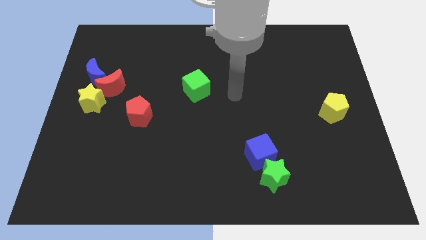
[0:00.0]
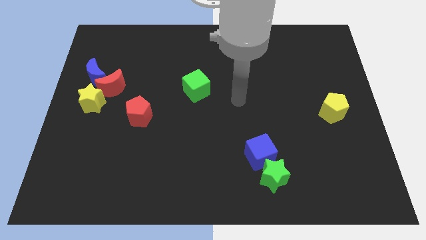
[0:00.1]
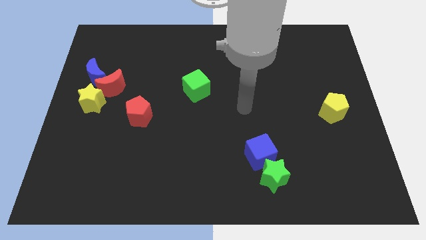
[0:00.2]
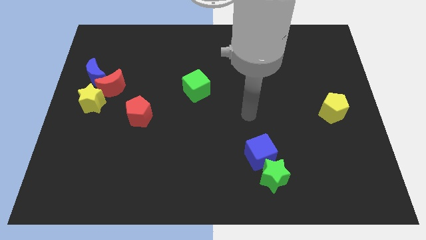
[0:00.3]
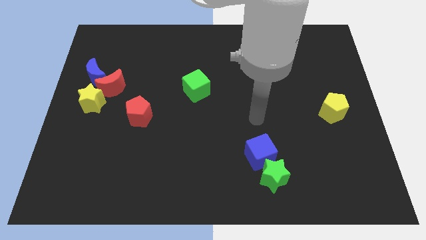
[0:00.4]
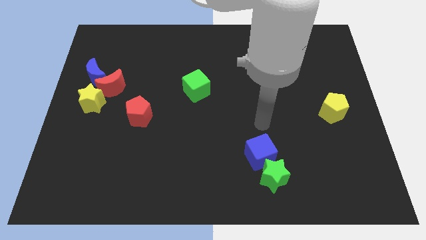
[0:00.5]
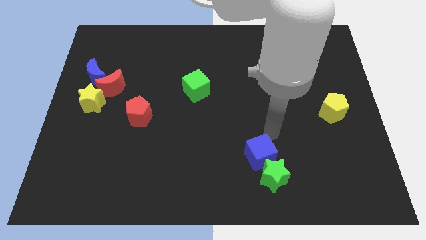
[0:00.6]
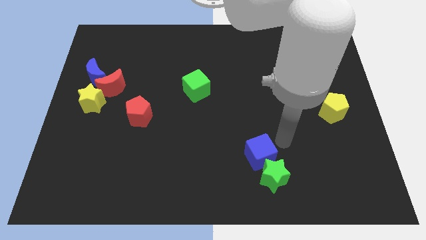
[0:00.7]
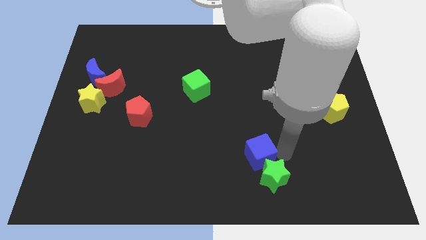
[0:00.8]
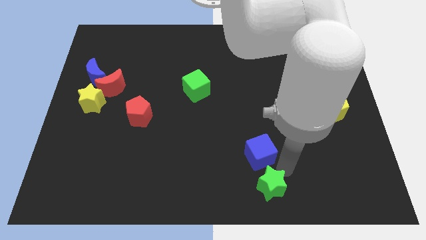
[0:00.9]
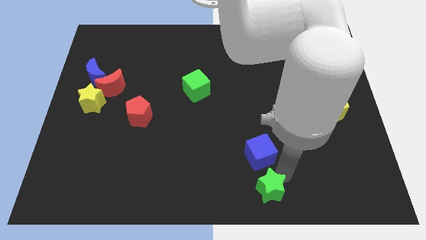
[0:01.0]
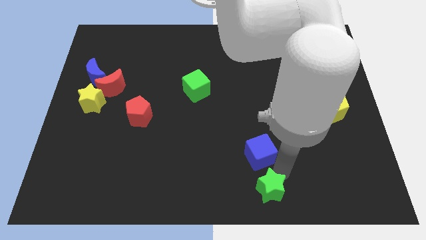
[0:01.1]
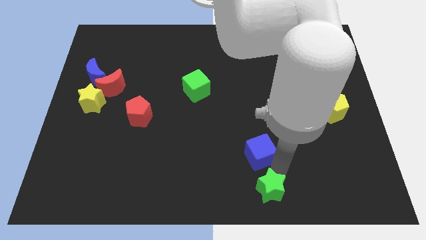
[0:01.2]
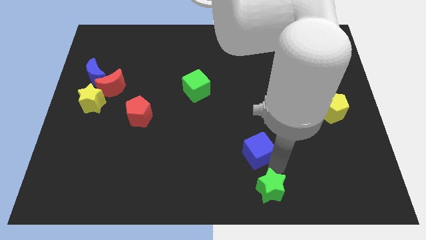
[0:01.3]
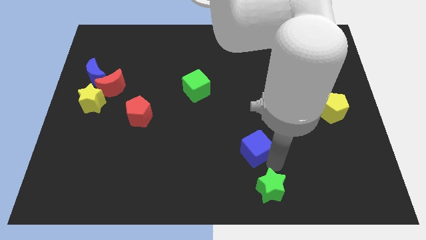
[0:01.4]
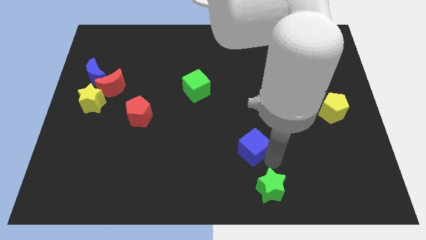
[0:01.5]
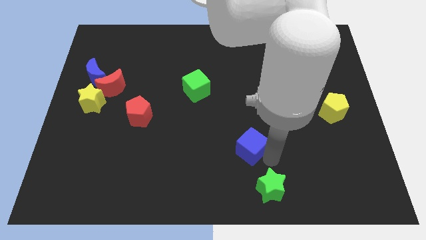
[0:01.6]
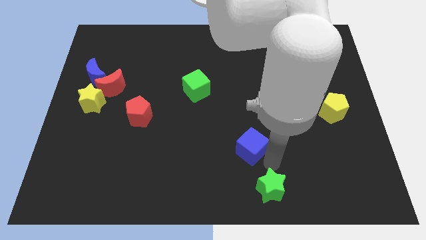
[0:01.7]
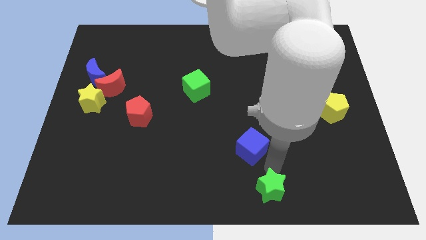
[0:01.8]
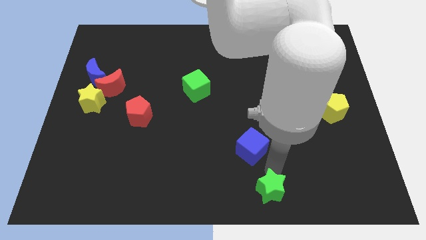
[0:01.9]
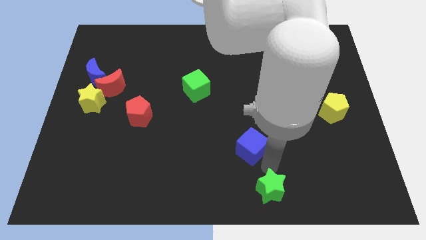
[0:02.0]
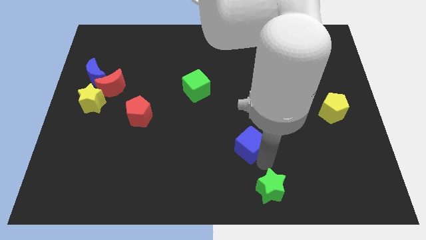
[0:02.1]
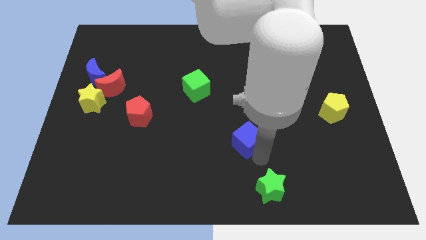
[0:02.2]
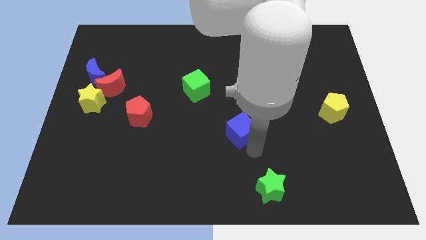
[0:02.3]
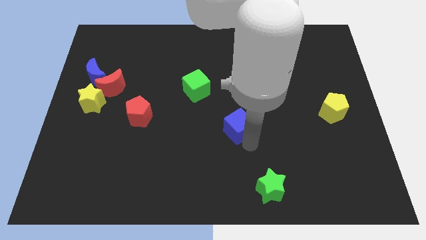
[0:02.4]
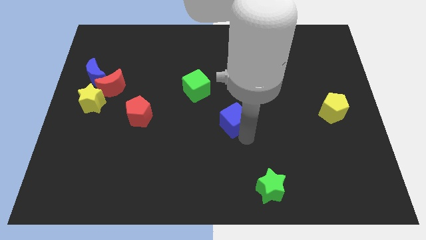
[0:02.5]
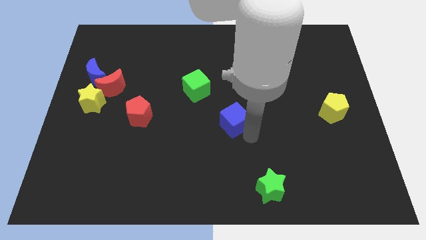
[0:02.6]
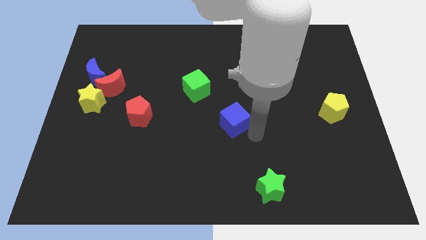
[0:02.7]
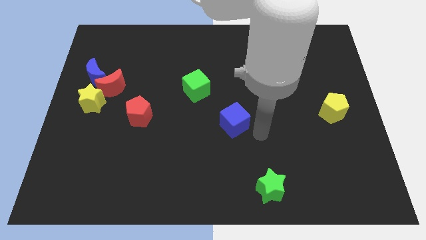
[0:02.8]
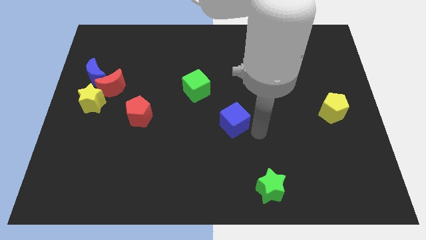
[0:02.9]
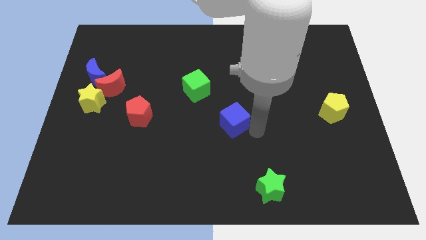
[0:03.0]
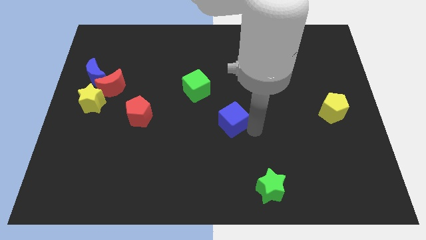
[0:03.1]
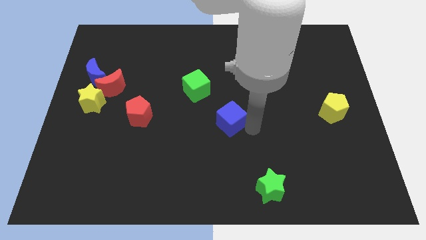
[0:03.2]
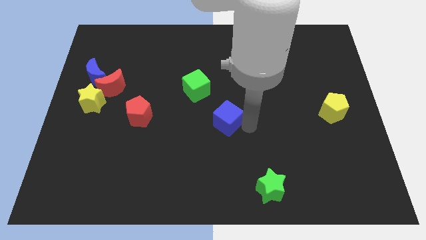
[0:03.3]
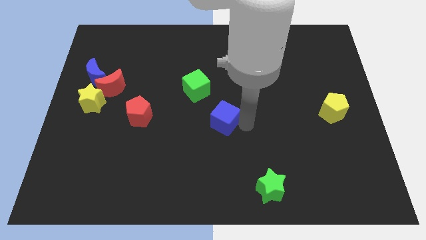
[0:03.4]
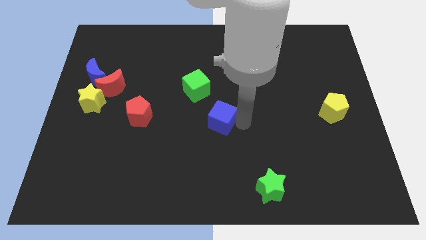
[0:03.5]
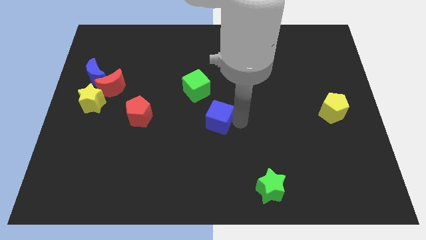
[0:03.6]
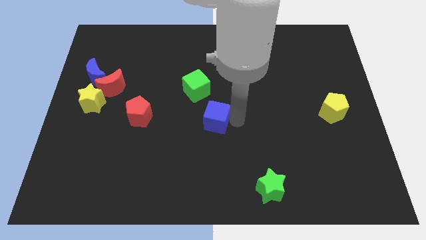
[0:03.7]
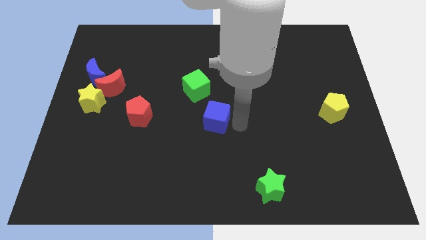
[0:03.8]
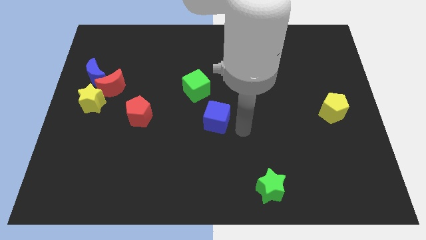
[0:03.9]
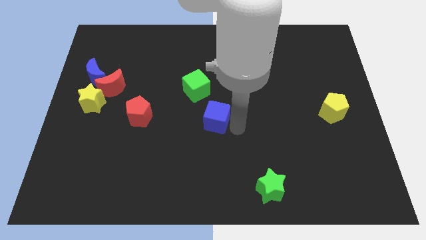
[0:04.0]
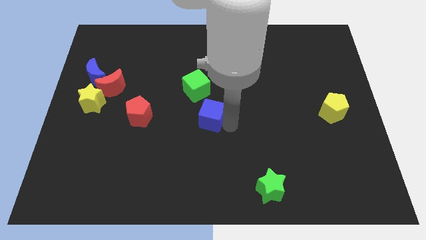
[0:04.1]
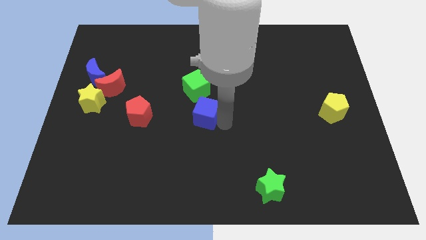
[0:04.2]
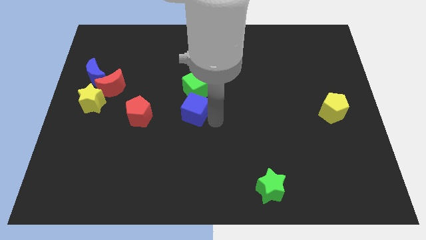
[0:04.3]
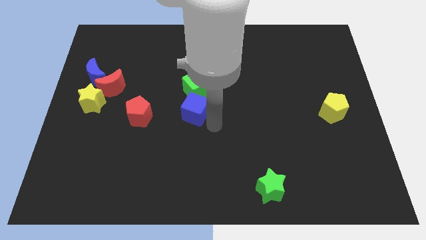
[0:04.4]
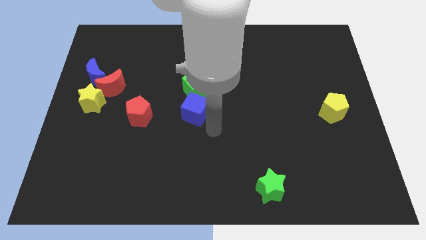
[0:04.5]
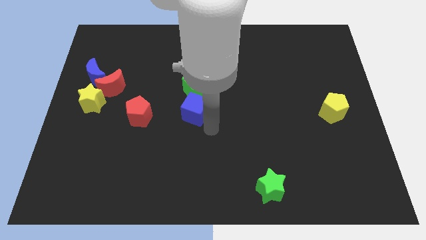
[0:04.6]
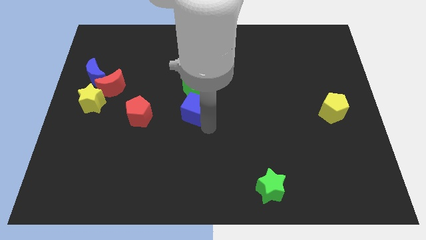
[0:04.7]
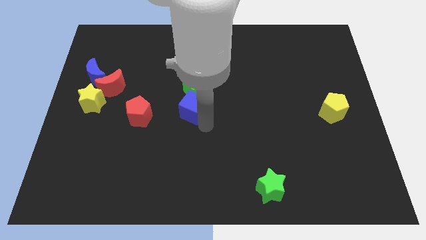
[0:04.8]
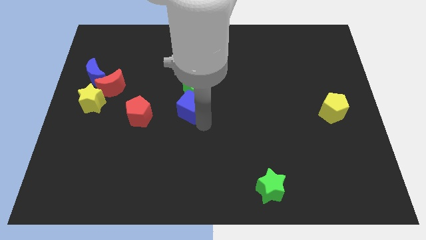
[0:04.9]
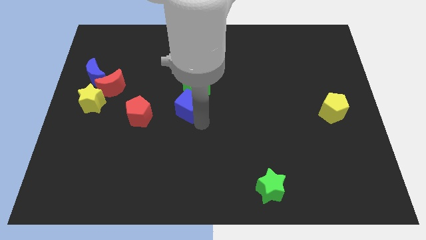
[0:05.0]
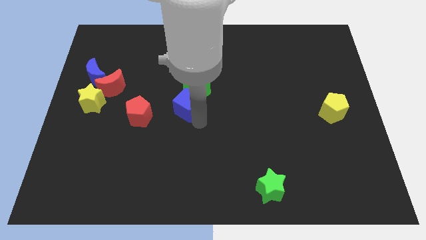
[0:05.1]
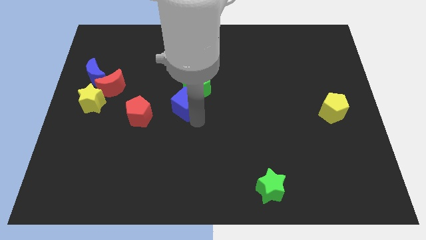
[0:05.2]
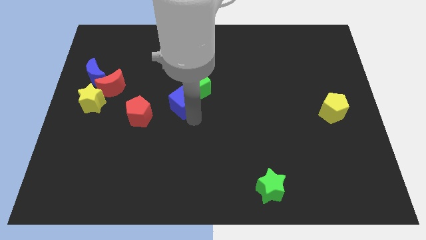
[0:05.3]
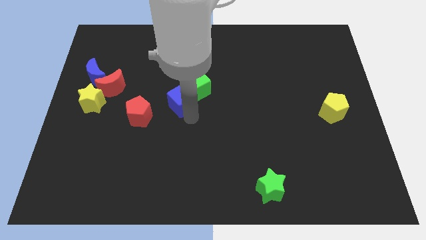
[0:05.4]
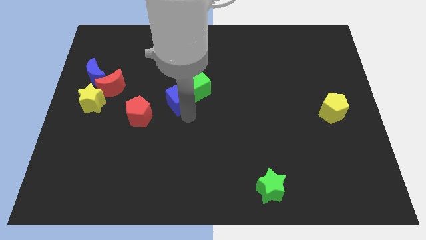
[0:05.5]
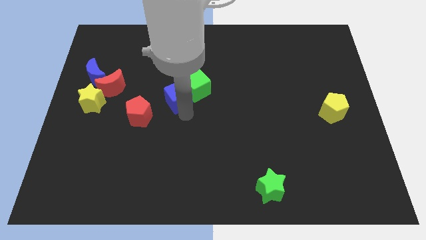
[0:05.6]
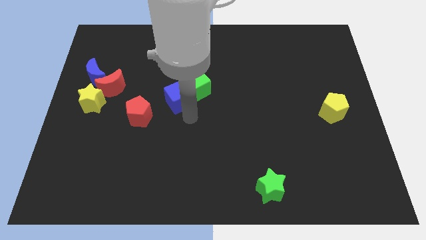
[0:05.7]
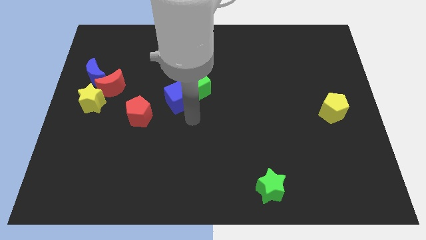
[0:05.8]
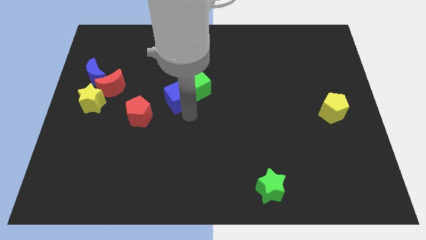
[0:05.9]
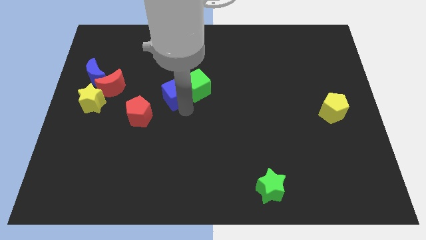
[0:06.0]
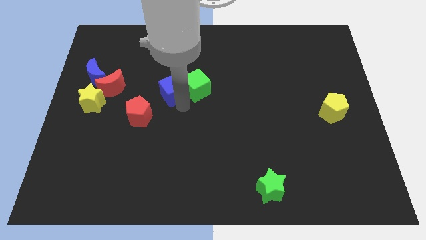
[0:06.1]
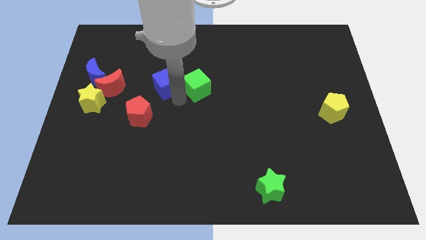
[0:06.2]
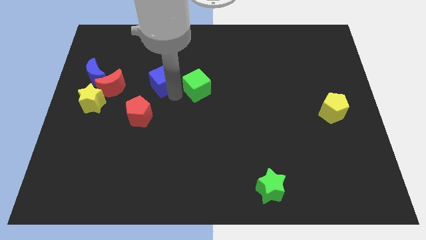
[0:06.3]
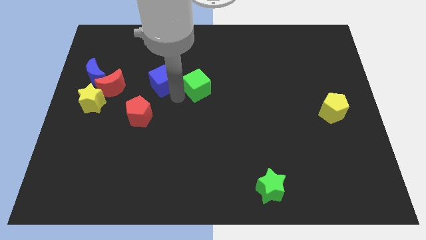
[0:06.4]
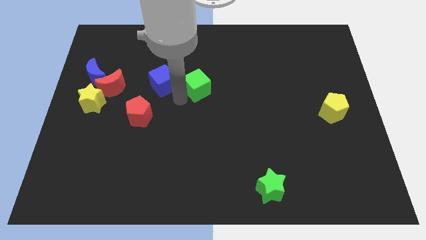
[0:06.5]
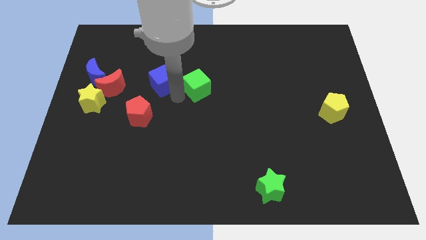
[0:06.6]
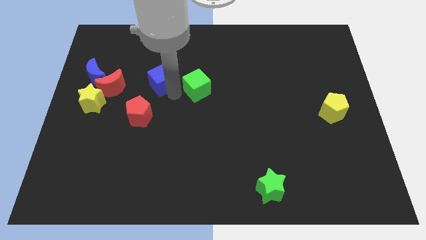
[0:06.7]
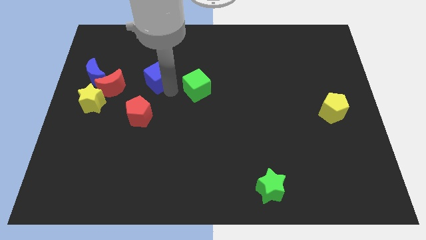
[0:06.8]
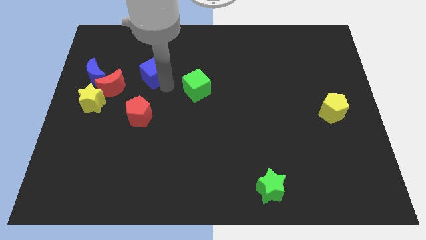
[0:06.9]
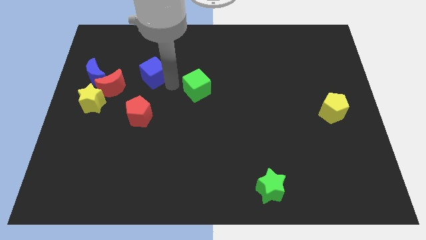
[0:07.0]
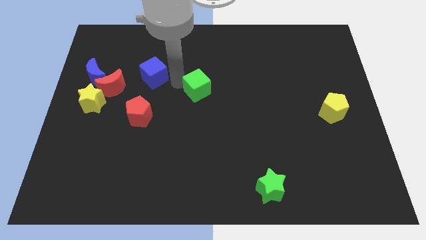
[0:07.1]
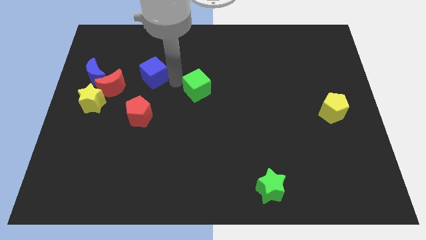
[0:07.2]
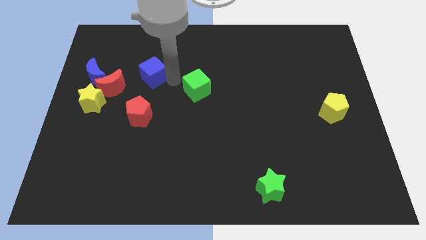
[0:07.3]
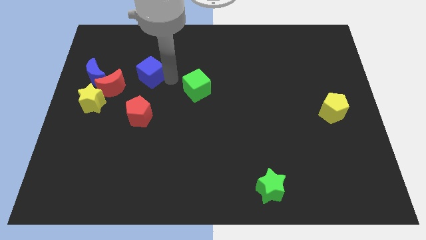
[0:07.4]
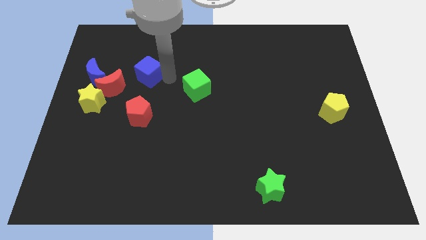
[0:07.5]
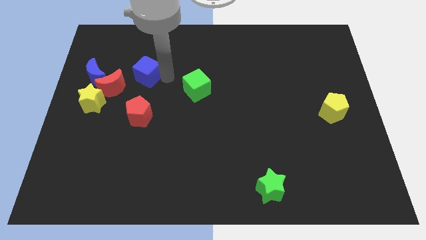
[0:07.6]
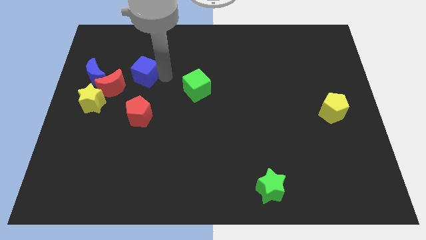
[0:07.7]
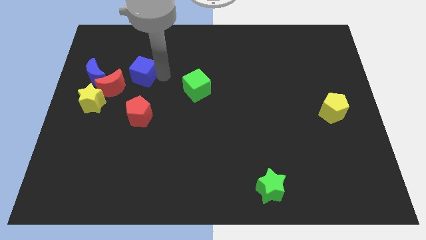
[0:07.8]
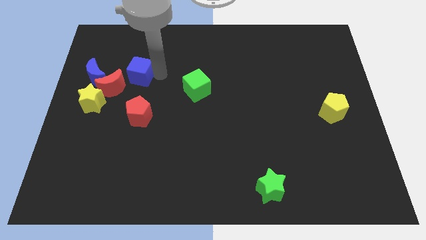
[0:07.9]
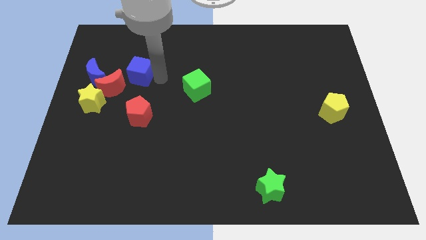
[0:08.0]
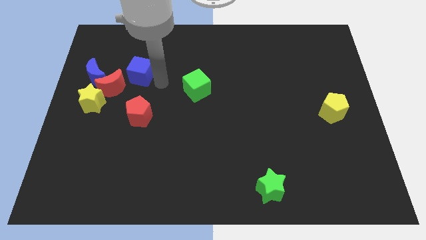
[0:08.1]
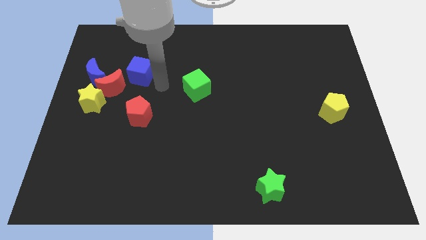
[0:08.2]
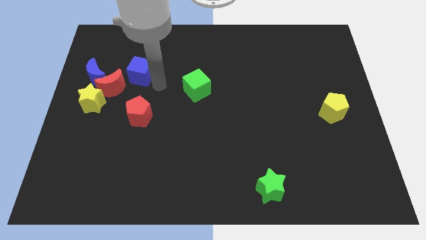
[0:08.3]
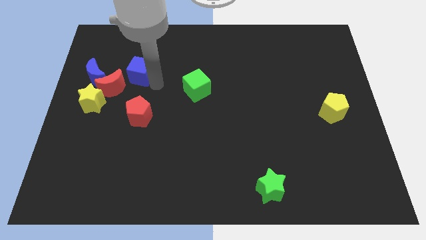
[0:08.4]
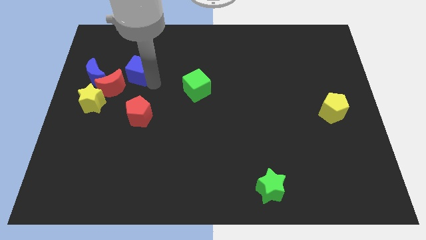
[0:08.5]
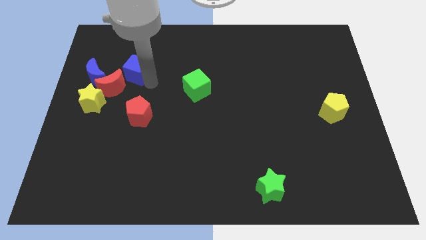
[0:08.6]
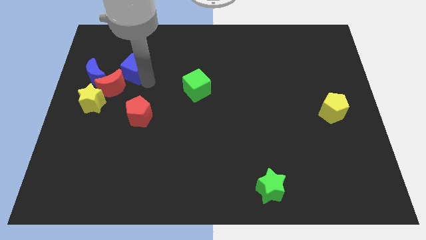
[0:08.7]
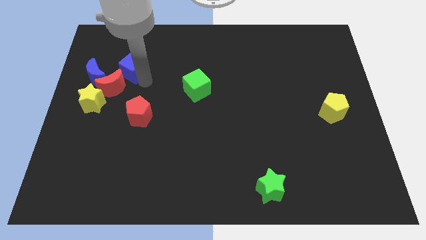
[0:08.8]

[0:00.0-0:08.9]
push the blue cube to the top right of the blue moon
